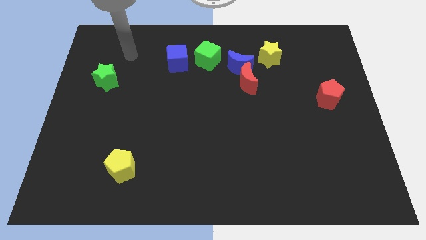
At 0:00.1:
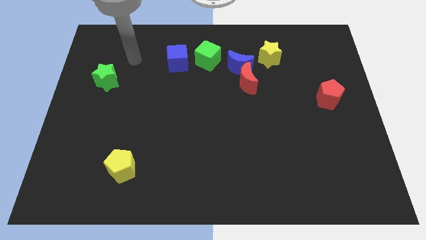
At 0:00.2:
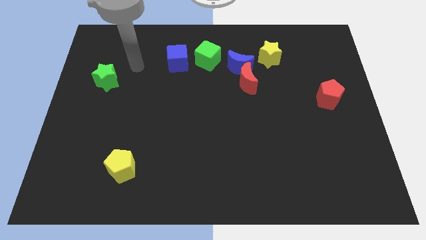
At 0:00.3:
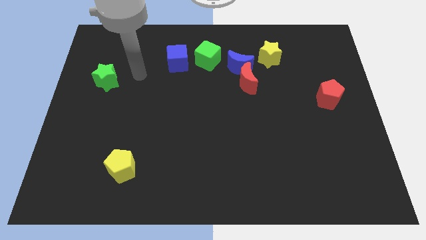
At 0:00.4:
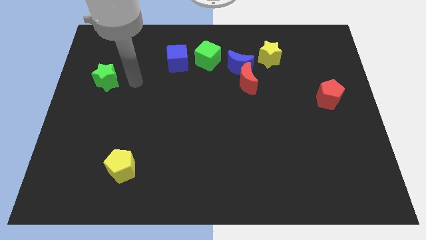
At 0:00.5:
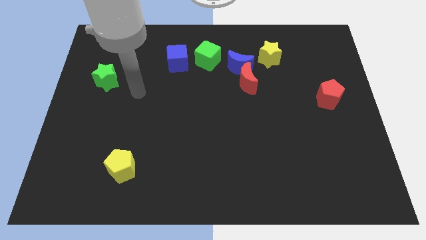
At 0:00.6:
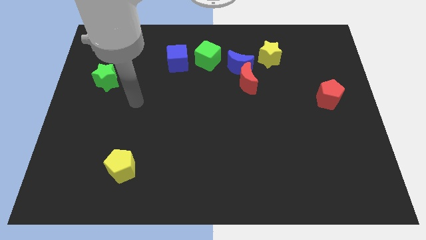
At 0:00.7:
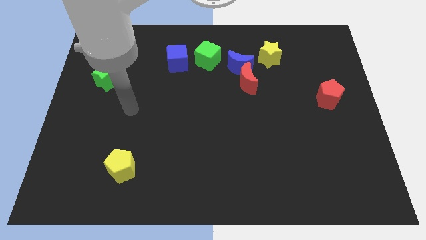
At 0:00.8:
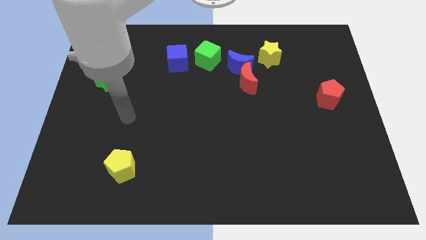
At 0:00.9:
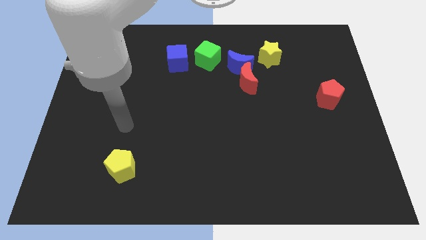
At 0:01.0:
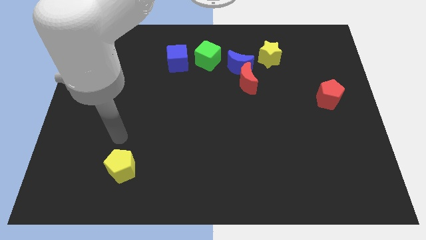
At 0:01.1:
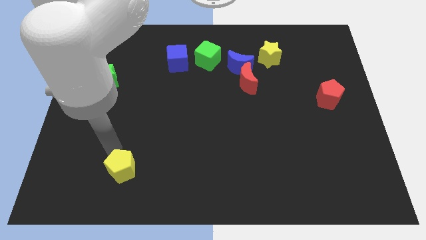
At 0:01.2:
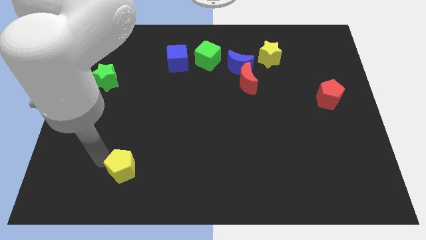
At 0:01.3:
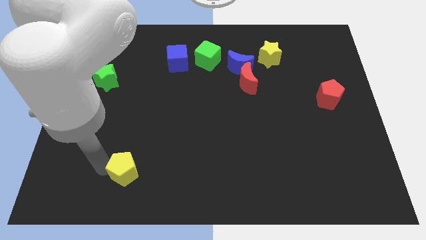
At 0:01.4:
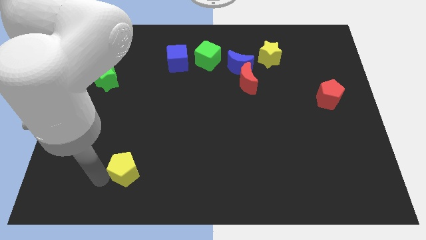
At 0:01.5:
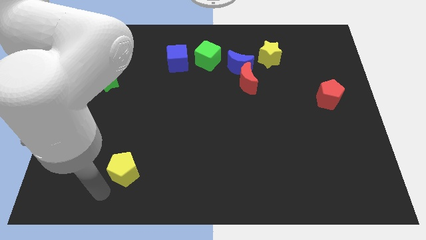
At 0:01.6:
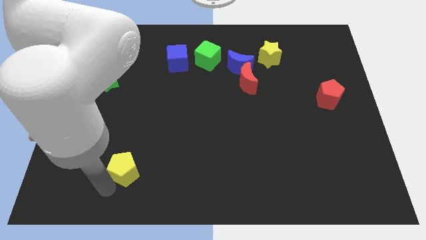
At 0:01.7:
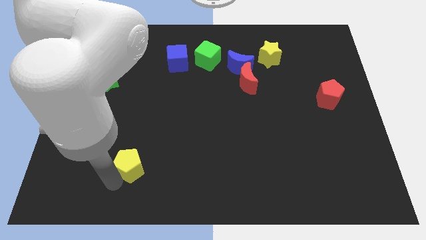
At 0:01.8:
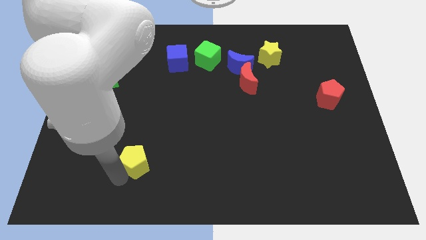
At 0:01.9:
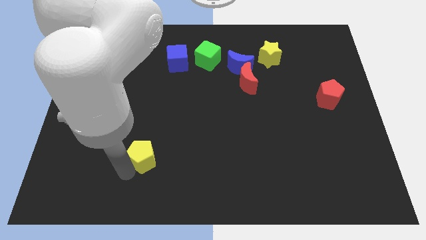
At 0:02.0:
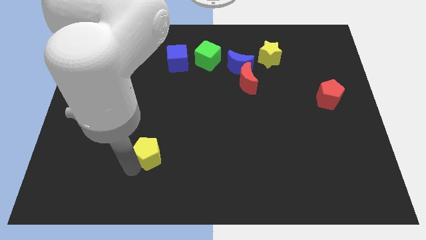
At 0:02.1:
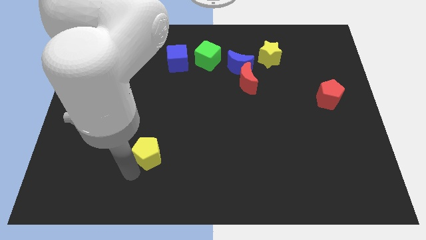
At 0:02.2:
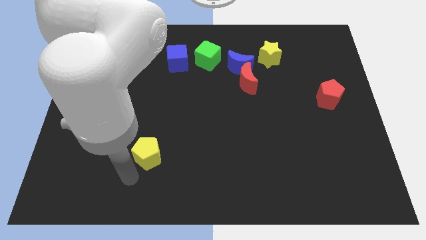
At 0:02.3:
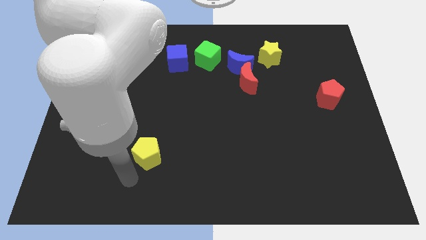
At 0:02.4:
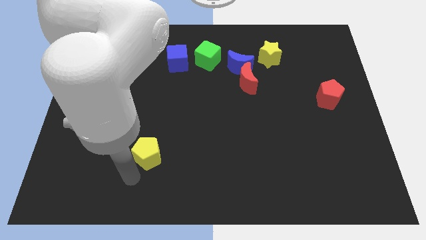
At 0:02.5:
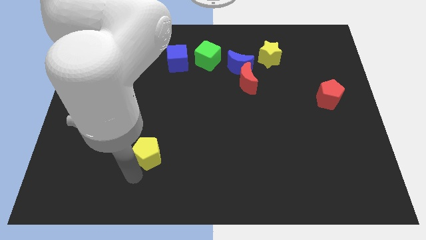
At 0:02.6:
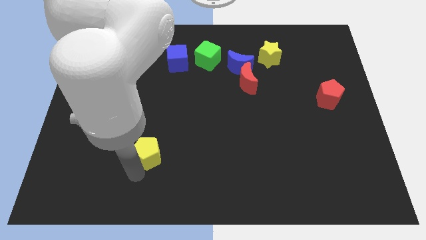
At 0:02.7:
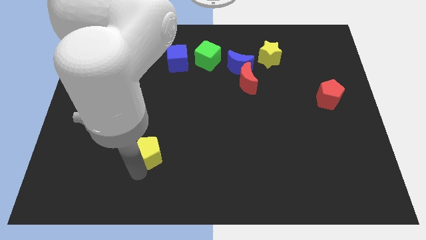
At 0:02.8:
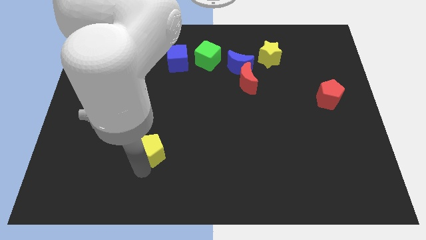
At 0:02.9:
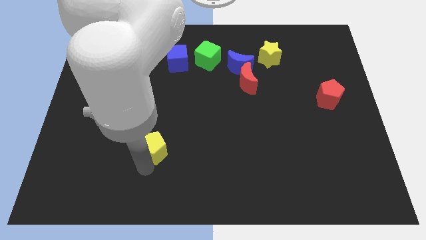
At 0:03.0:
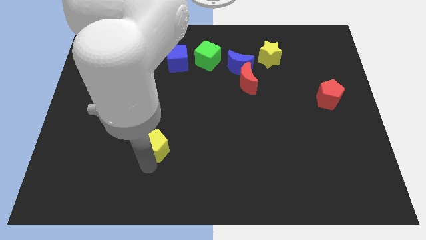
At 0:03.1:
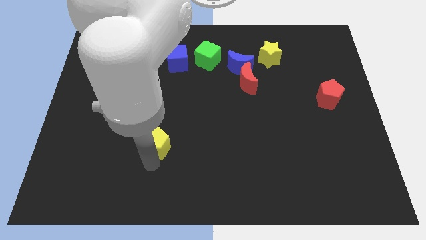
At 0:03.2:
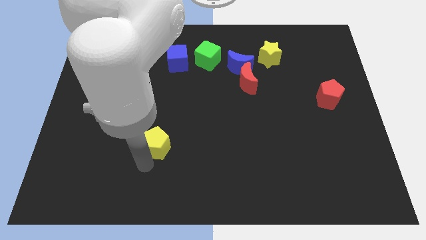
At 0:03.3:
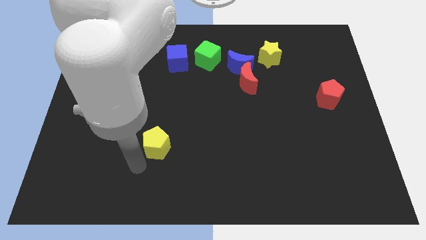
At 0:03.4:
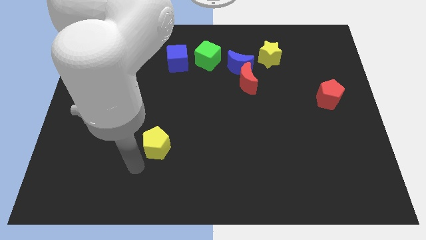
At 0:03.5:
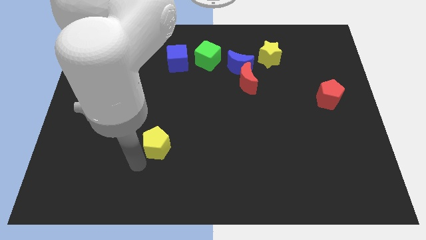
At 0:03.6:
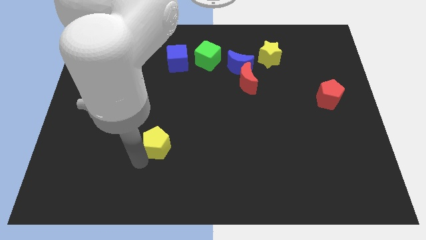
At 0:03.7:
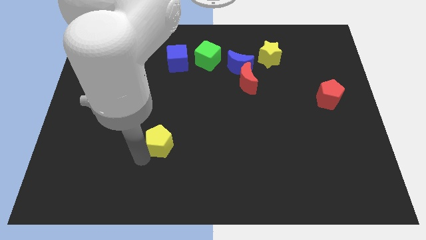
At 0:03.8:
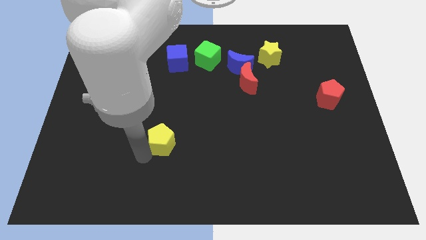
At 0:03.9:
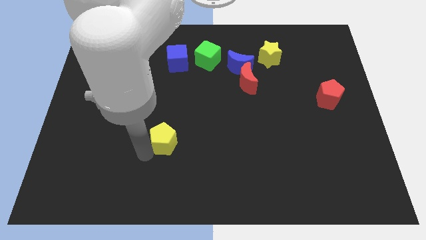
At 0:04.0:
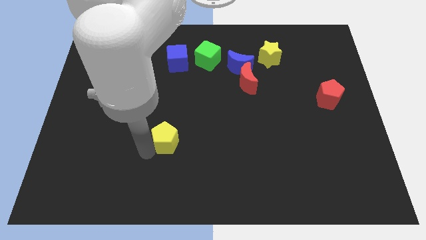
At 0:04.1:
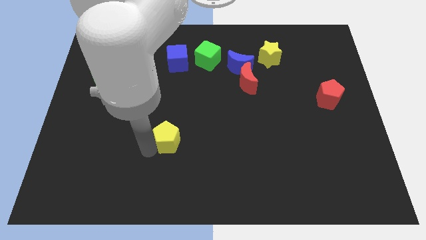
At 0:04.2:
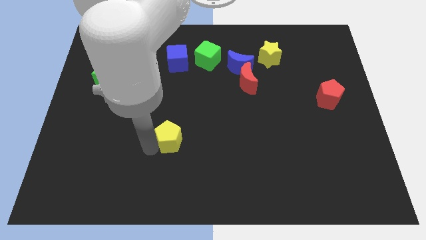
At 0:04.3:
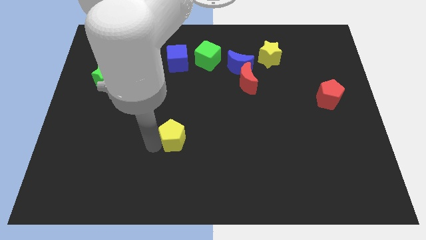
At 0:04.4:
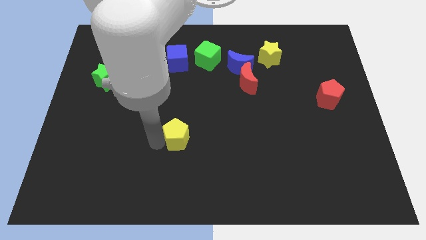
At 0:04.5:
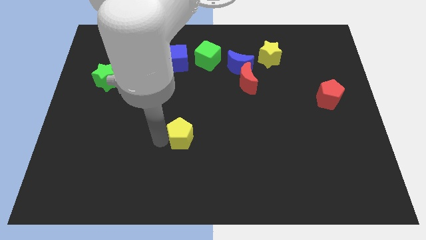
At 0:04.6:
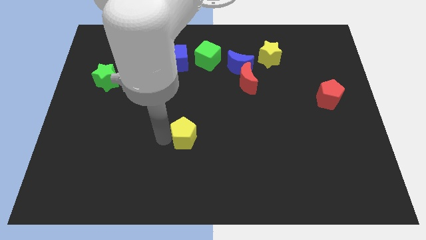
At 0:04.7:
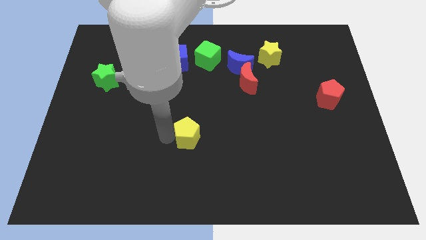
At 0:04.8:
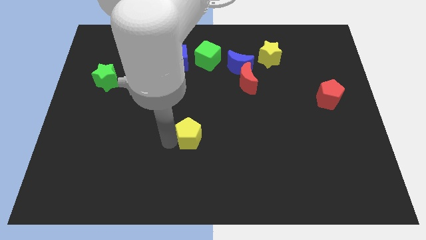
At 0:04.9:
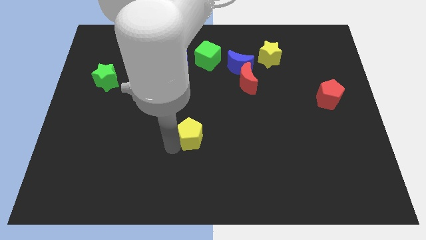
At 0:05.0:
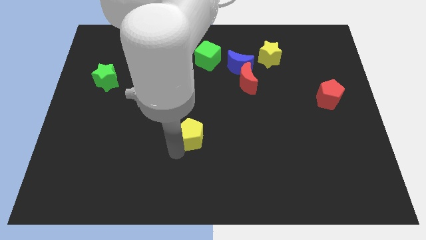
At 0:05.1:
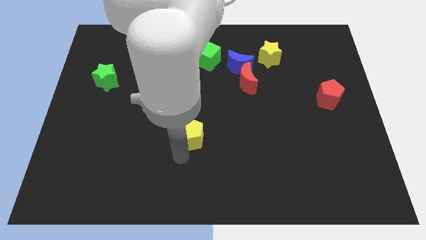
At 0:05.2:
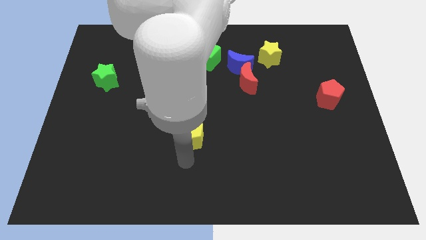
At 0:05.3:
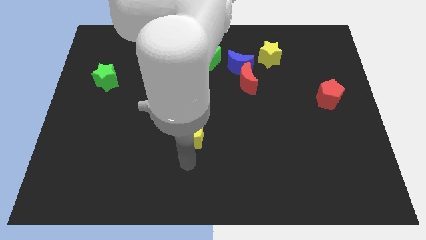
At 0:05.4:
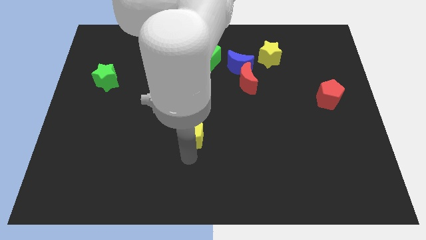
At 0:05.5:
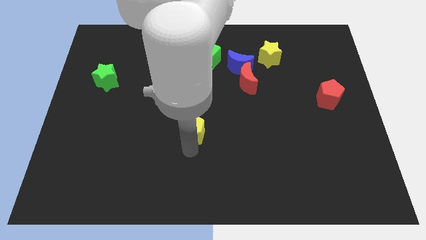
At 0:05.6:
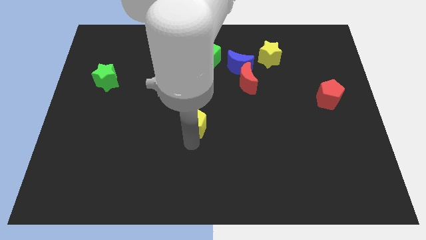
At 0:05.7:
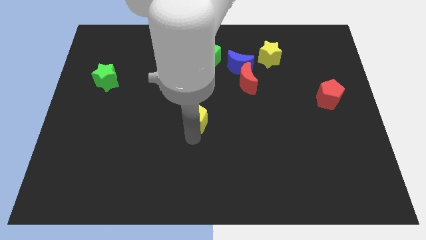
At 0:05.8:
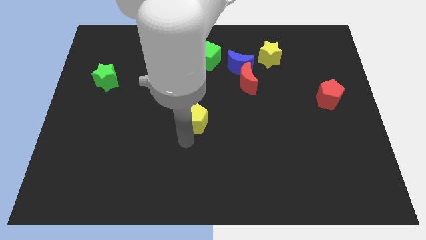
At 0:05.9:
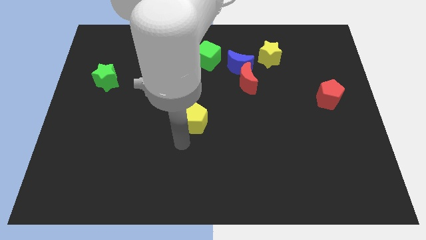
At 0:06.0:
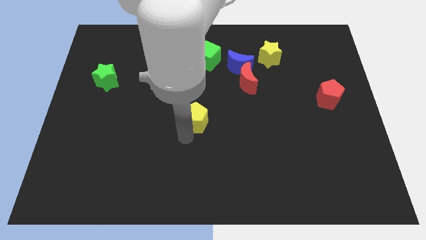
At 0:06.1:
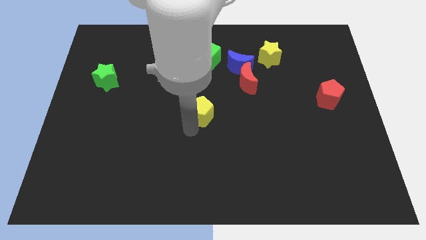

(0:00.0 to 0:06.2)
slide the yellow pentagon up and then right

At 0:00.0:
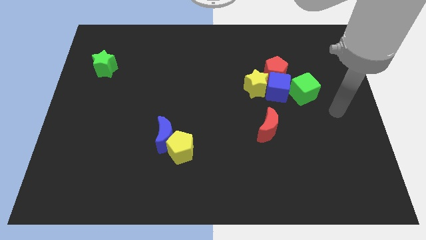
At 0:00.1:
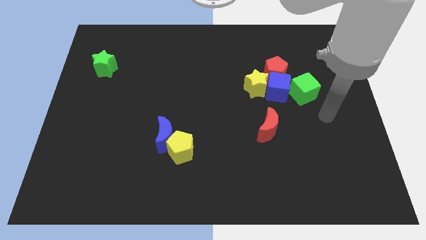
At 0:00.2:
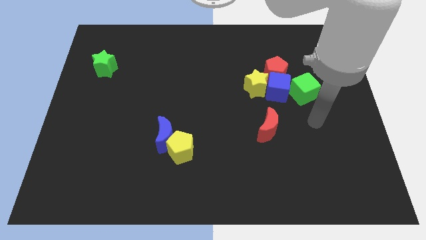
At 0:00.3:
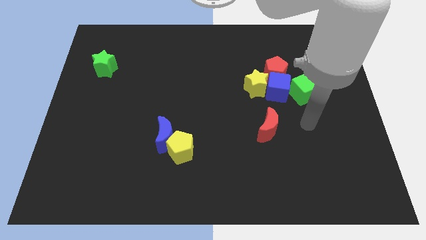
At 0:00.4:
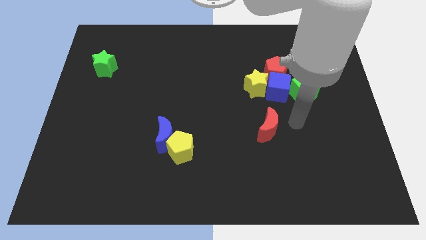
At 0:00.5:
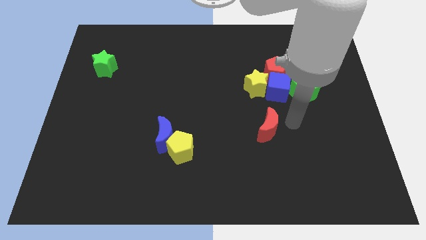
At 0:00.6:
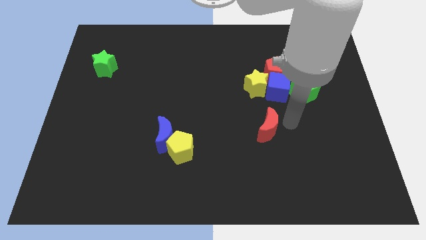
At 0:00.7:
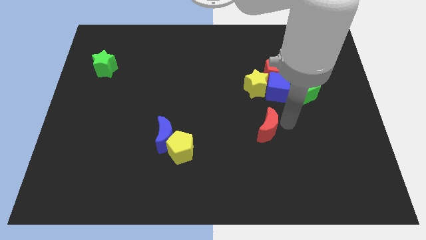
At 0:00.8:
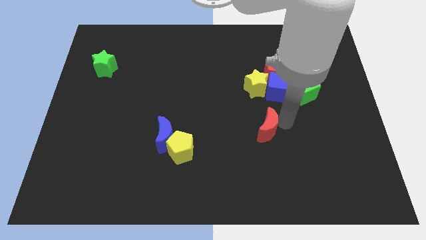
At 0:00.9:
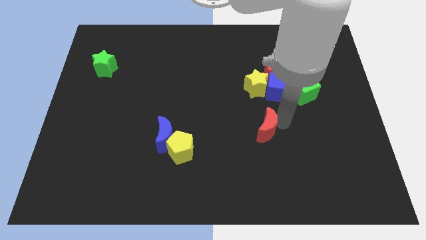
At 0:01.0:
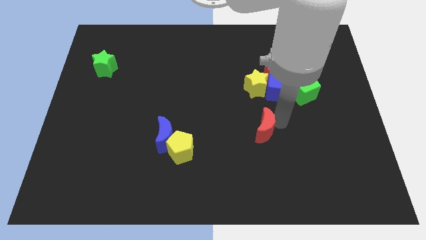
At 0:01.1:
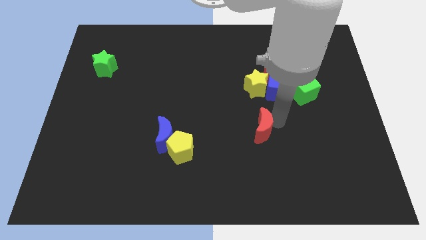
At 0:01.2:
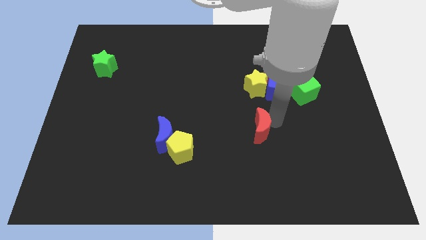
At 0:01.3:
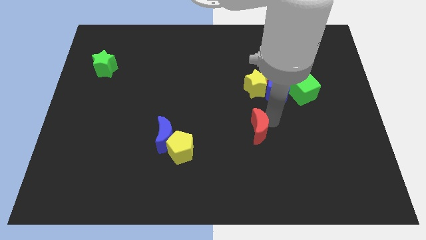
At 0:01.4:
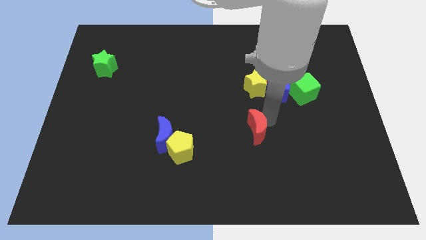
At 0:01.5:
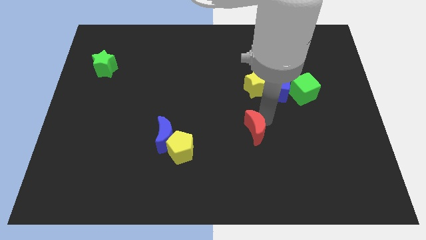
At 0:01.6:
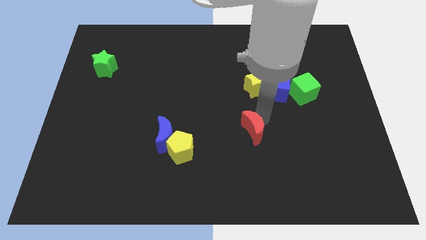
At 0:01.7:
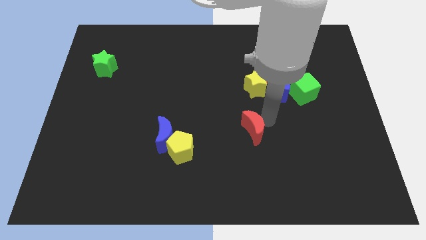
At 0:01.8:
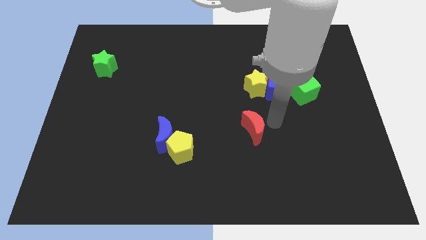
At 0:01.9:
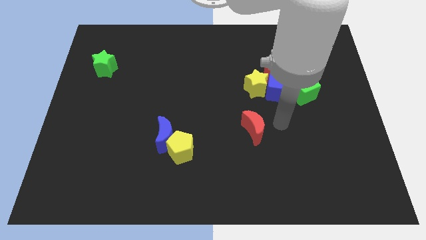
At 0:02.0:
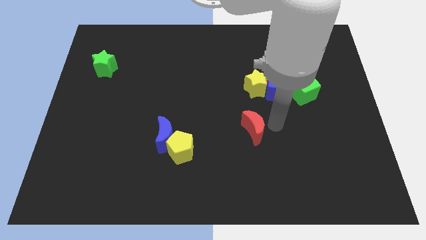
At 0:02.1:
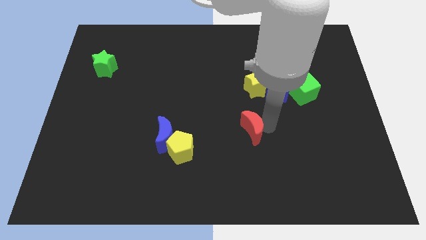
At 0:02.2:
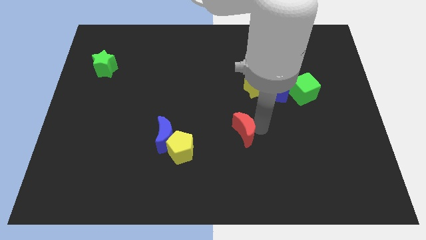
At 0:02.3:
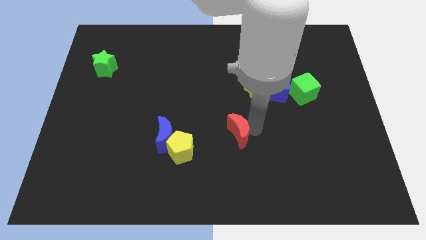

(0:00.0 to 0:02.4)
move the red moon to the left somewhat
